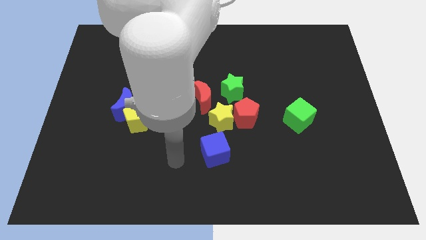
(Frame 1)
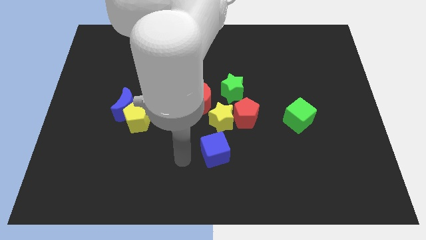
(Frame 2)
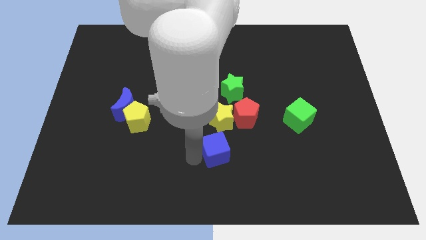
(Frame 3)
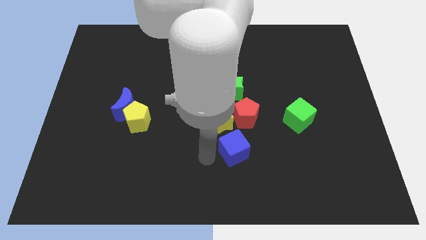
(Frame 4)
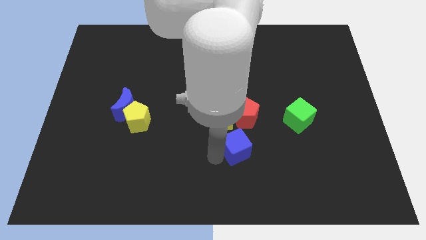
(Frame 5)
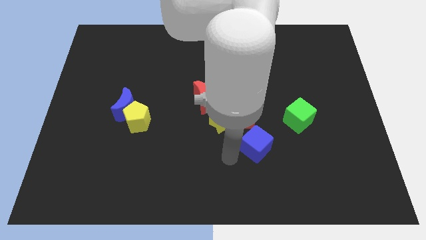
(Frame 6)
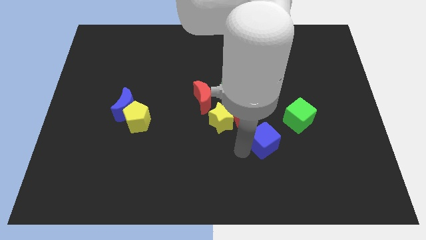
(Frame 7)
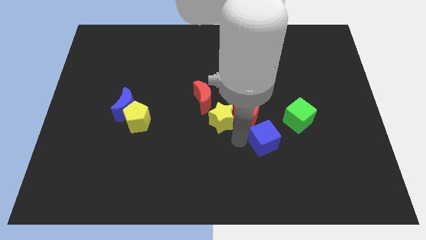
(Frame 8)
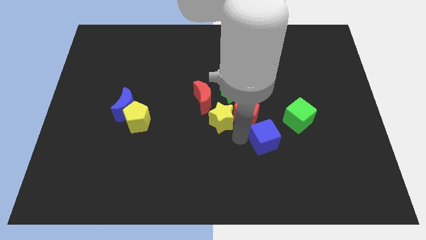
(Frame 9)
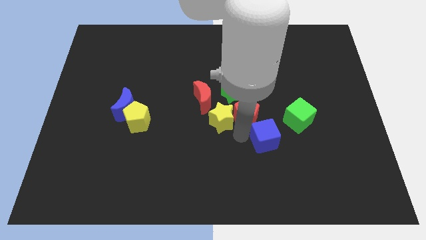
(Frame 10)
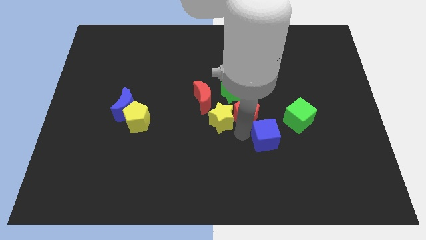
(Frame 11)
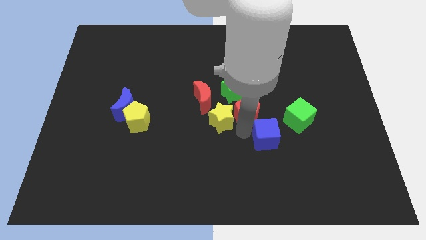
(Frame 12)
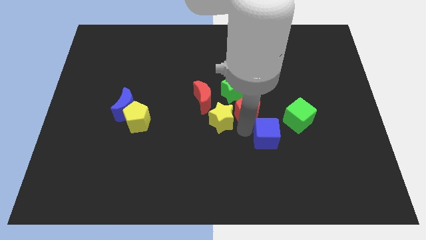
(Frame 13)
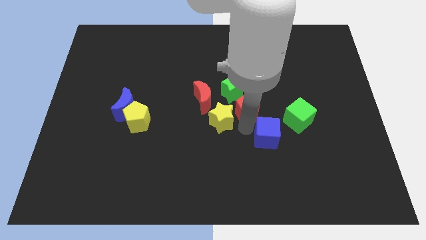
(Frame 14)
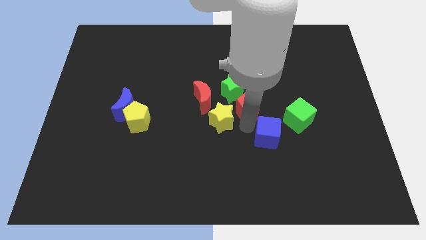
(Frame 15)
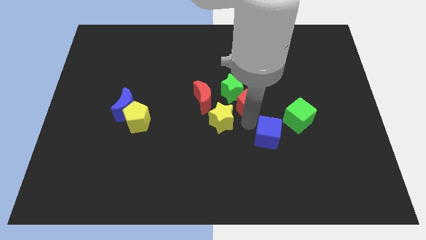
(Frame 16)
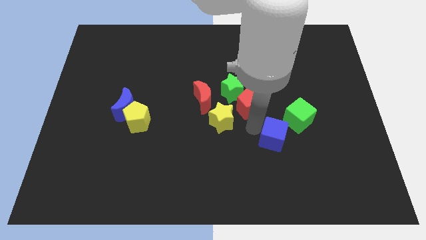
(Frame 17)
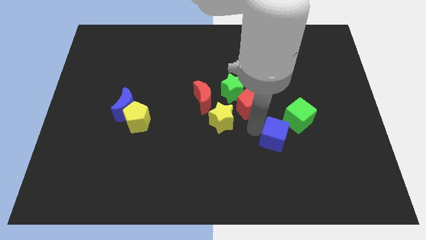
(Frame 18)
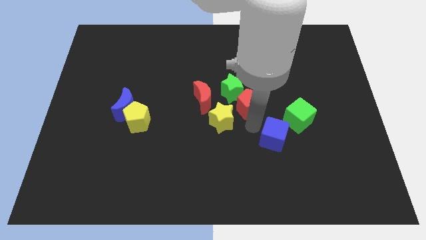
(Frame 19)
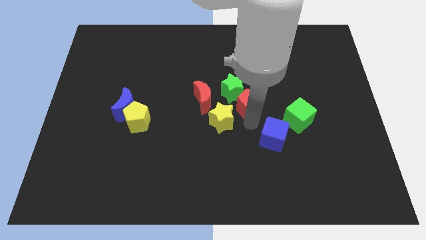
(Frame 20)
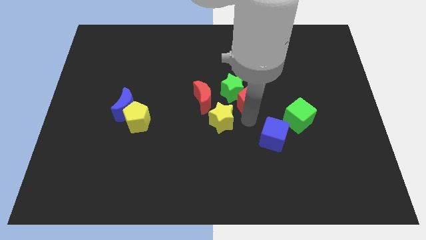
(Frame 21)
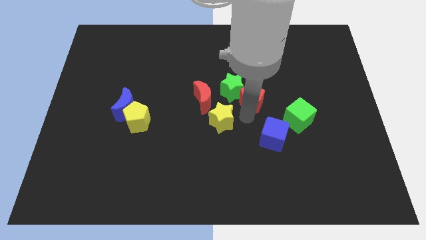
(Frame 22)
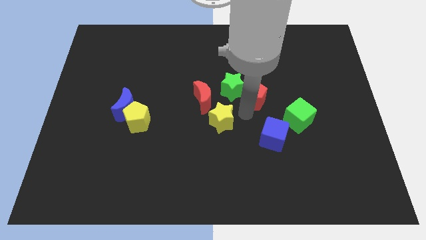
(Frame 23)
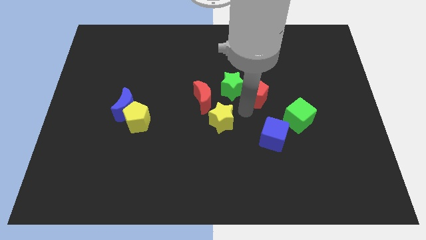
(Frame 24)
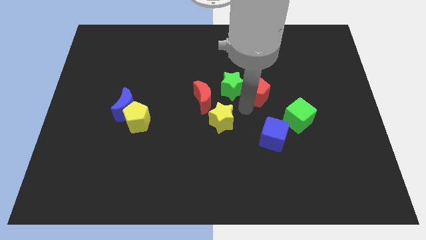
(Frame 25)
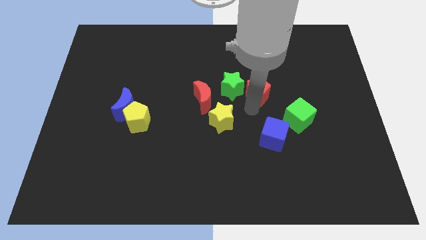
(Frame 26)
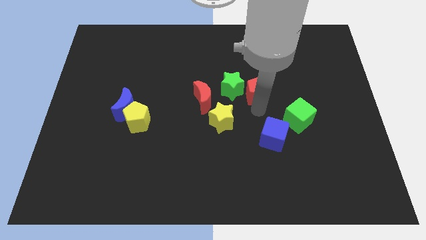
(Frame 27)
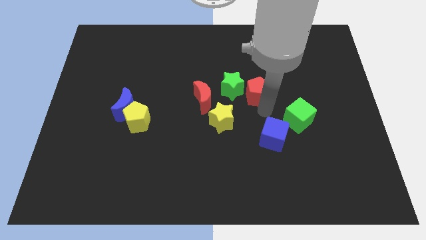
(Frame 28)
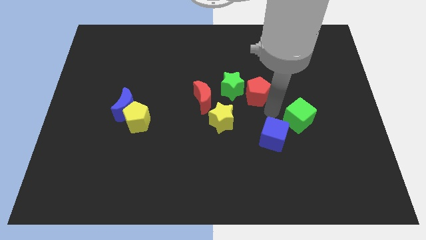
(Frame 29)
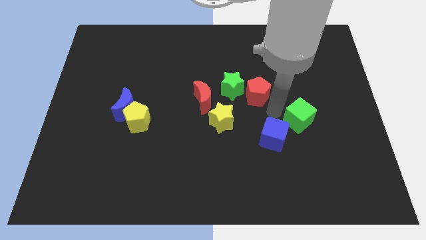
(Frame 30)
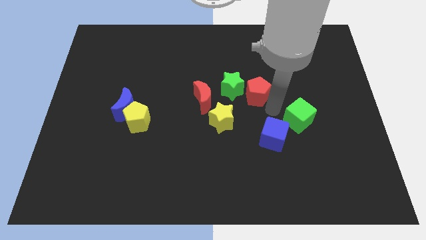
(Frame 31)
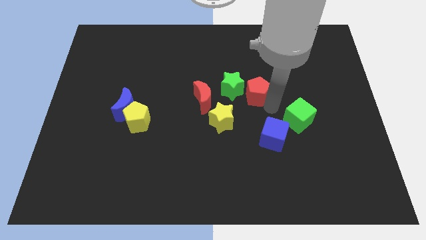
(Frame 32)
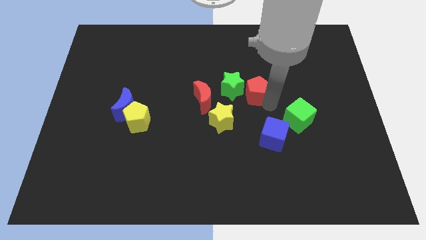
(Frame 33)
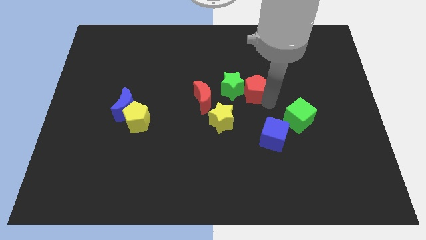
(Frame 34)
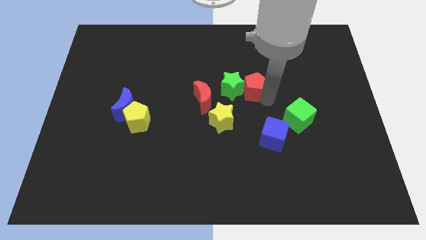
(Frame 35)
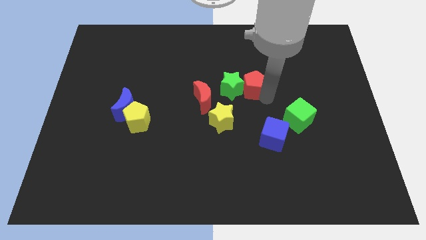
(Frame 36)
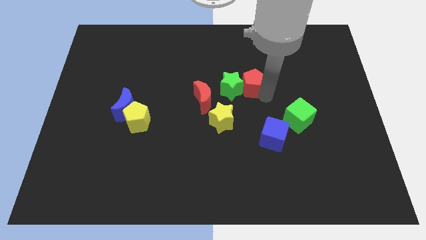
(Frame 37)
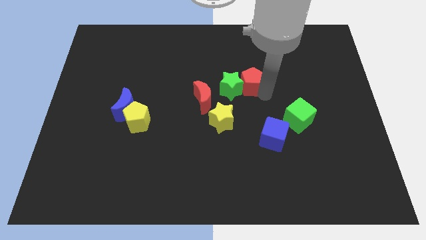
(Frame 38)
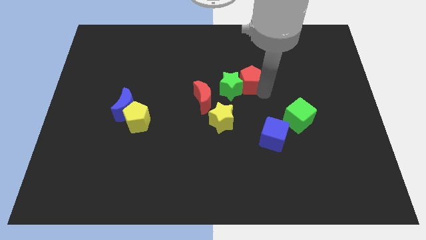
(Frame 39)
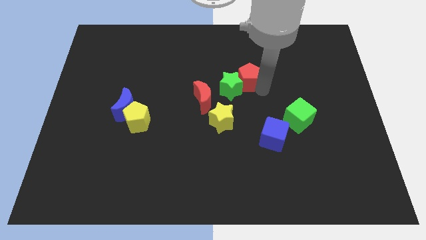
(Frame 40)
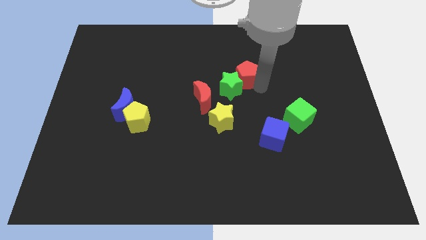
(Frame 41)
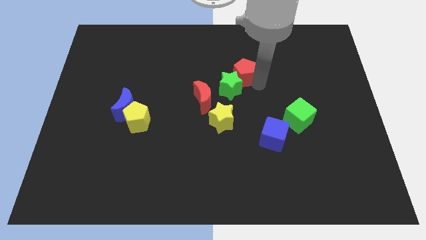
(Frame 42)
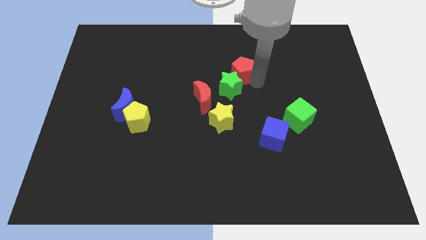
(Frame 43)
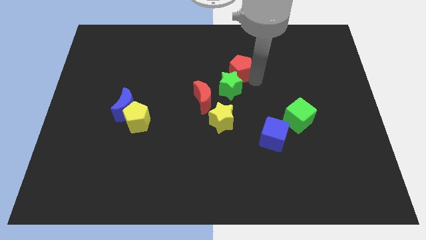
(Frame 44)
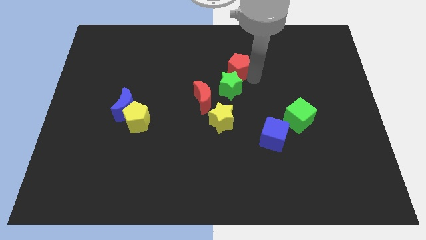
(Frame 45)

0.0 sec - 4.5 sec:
move the red pentagon upwards and to the left diagonally a bit

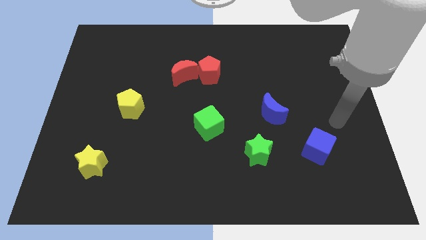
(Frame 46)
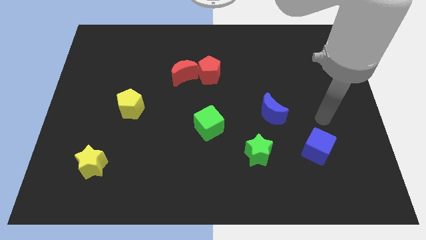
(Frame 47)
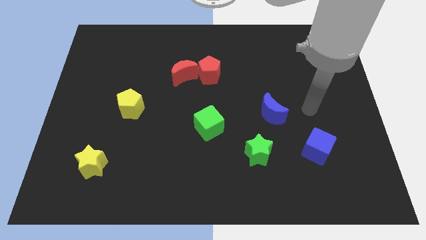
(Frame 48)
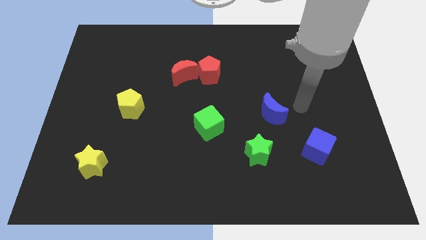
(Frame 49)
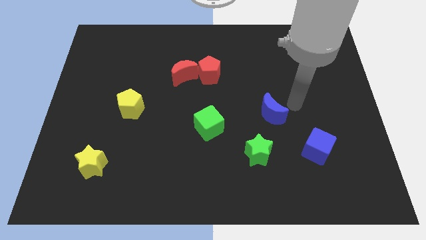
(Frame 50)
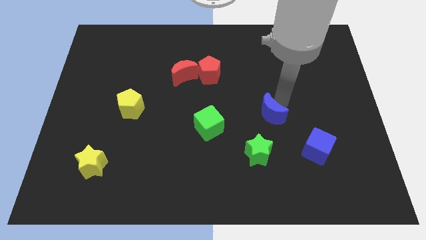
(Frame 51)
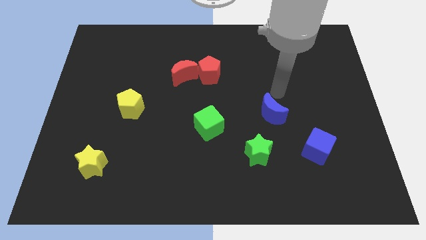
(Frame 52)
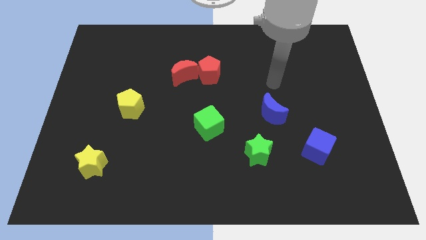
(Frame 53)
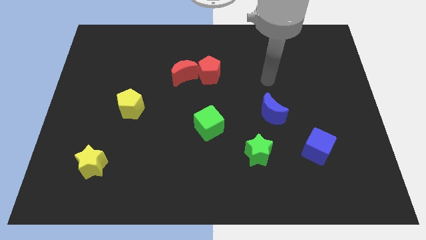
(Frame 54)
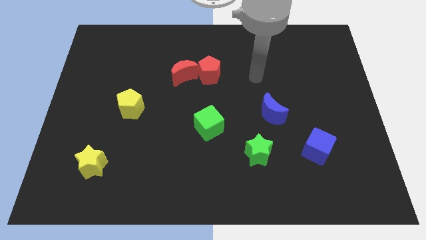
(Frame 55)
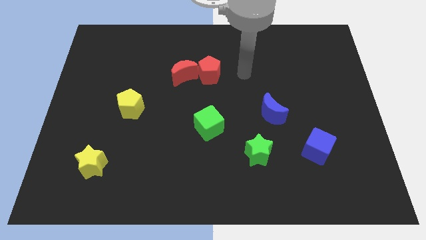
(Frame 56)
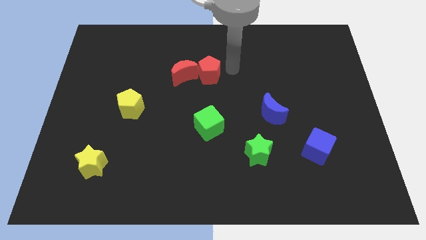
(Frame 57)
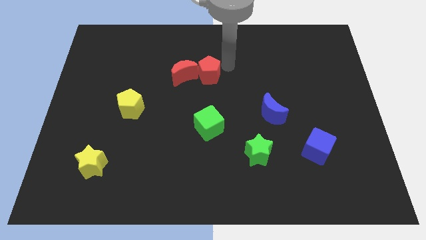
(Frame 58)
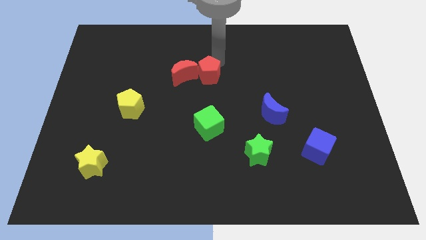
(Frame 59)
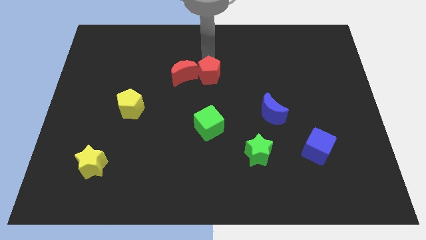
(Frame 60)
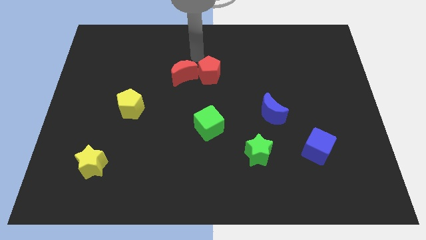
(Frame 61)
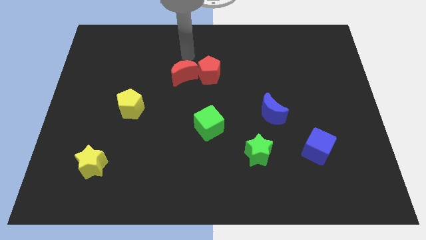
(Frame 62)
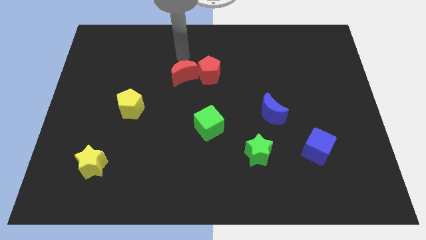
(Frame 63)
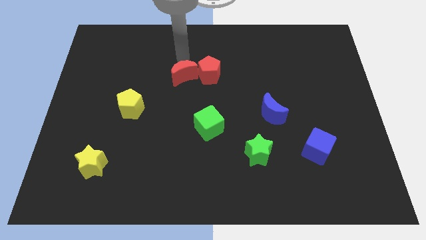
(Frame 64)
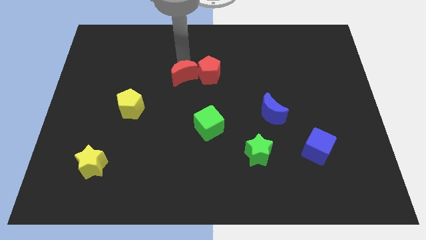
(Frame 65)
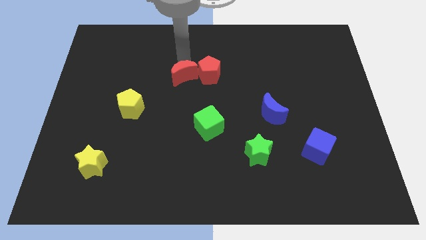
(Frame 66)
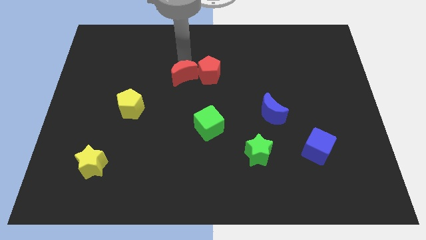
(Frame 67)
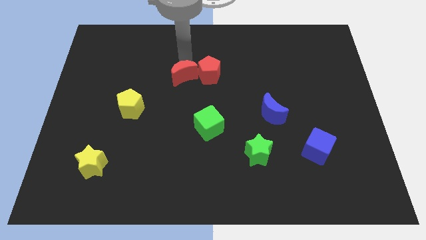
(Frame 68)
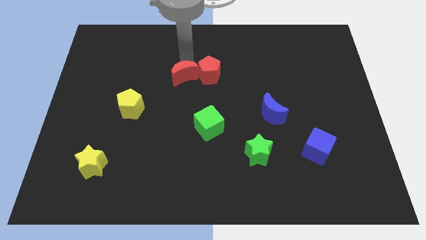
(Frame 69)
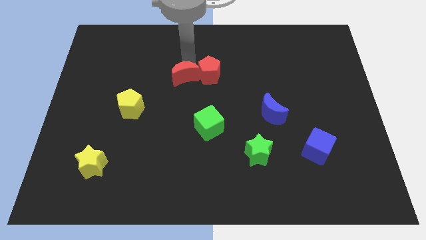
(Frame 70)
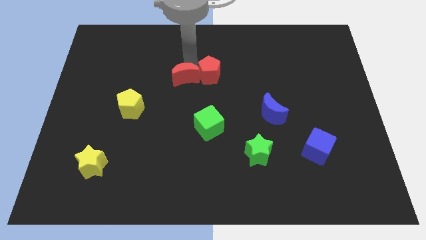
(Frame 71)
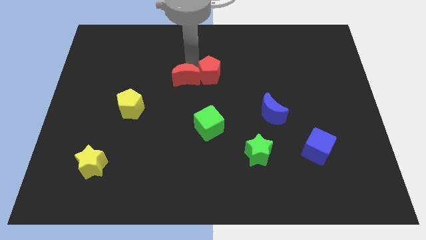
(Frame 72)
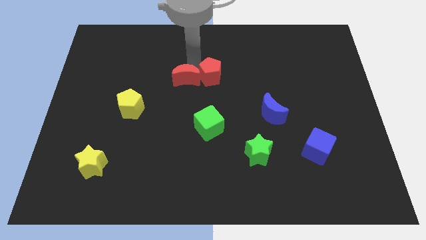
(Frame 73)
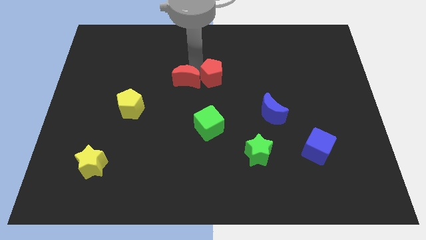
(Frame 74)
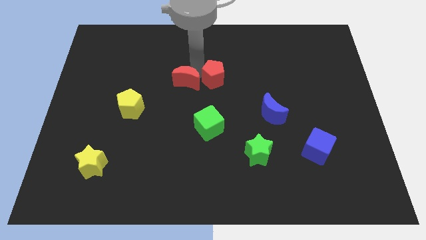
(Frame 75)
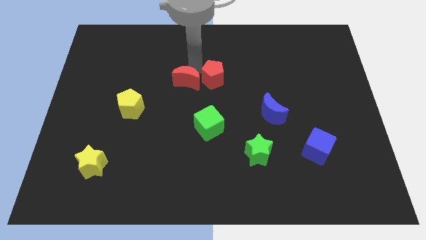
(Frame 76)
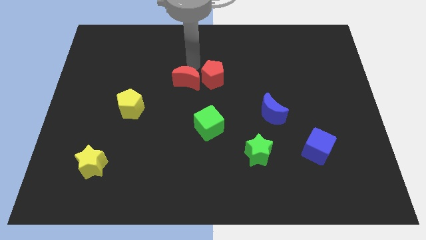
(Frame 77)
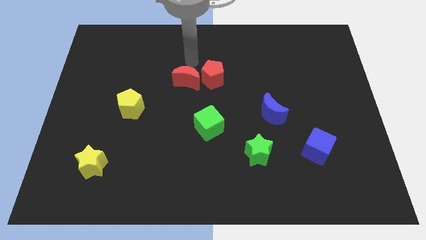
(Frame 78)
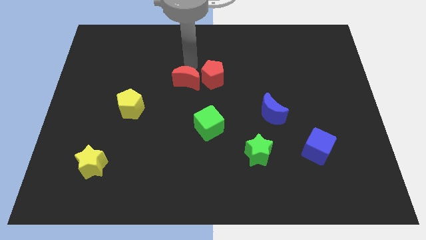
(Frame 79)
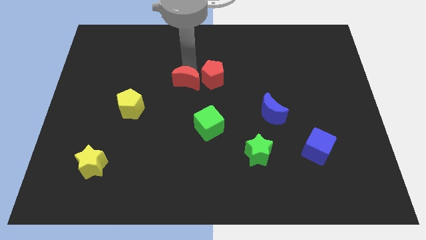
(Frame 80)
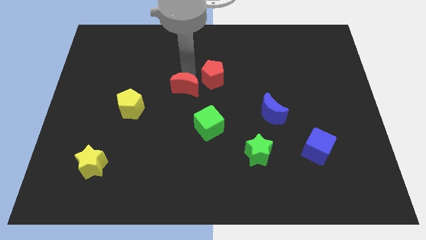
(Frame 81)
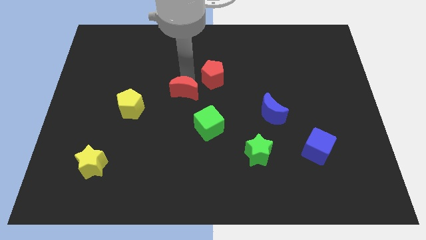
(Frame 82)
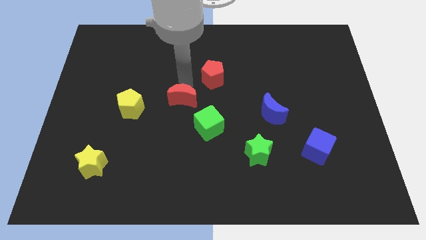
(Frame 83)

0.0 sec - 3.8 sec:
push the red moon down a little bit
